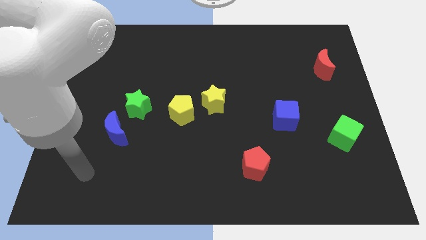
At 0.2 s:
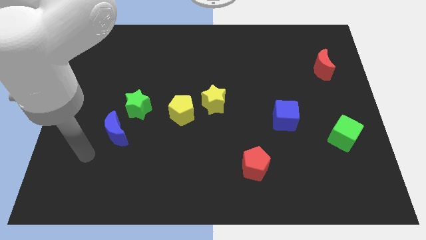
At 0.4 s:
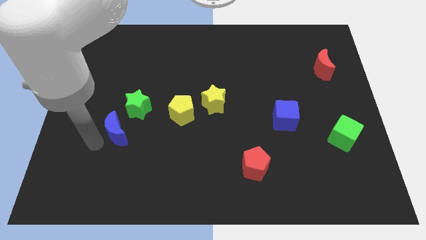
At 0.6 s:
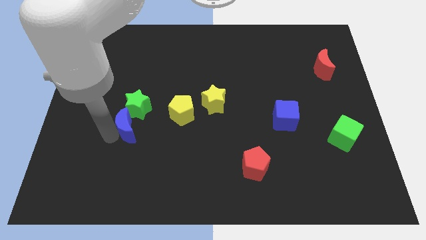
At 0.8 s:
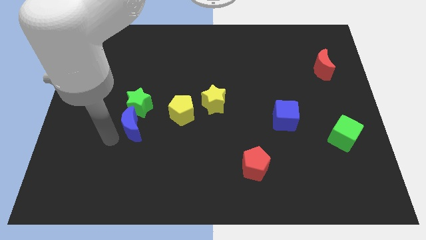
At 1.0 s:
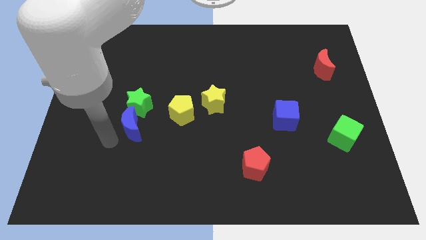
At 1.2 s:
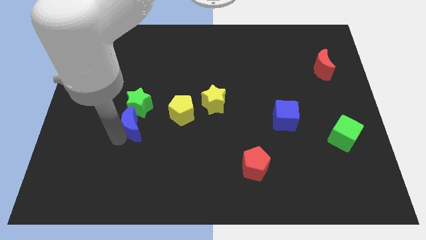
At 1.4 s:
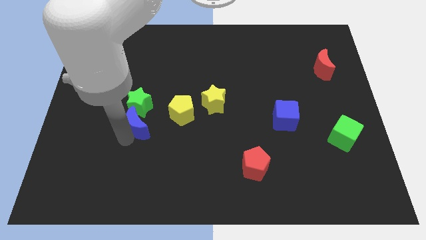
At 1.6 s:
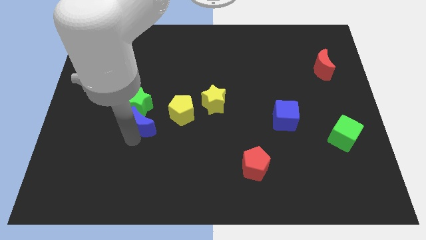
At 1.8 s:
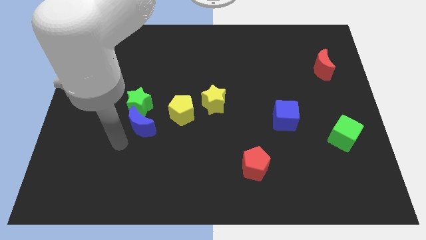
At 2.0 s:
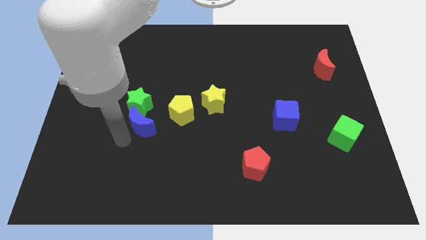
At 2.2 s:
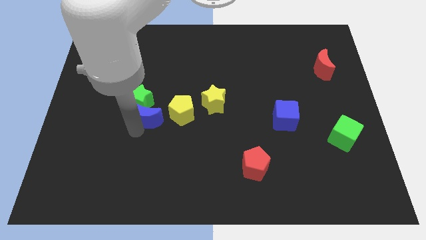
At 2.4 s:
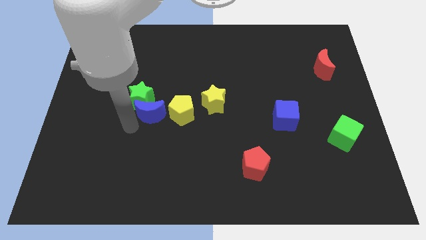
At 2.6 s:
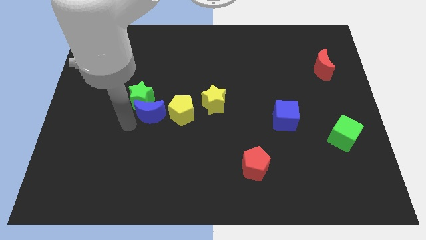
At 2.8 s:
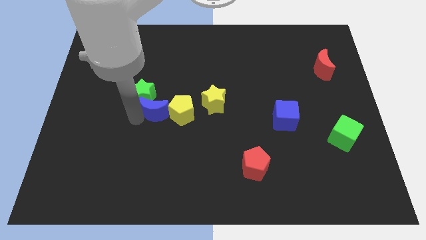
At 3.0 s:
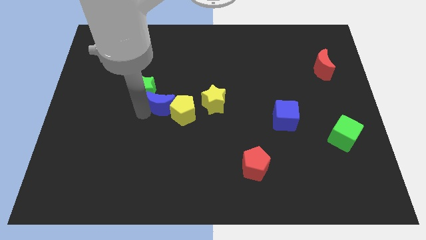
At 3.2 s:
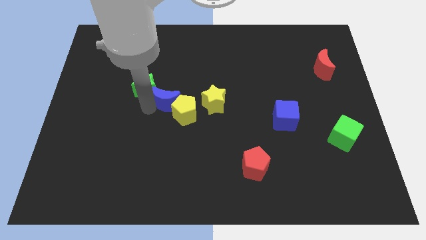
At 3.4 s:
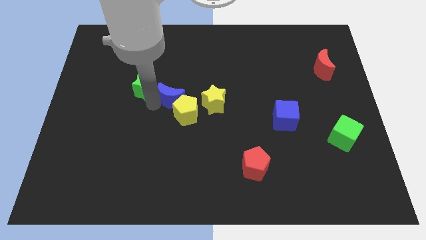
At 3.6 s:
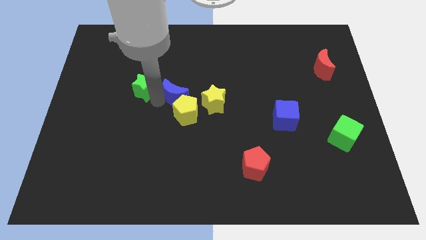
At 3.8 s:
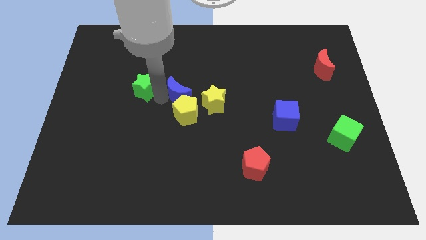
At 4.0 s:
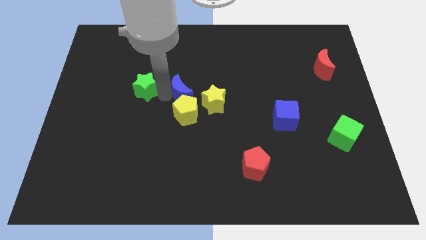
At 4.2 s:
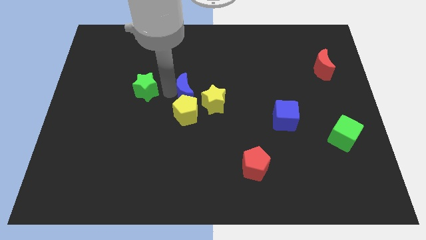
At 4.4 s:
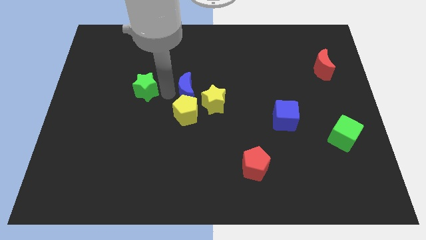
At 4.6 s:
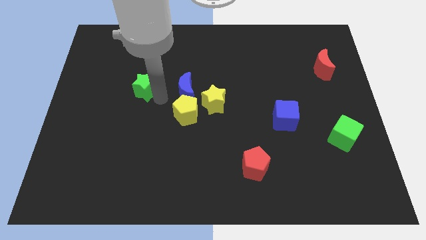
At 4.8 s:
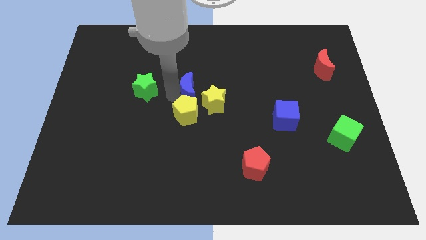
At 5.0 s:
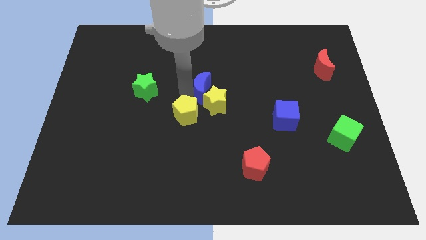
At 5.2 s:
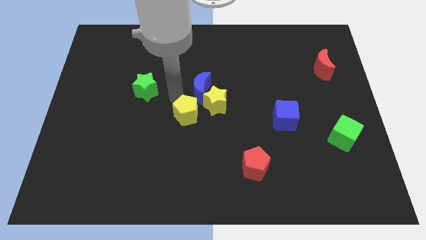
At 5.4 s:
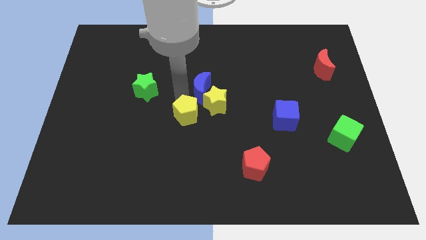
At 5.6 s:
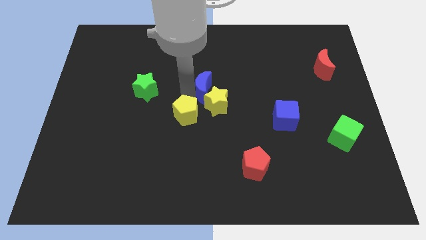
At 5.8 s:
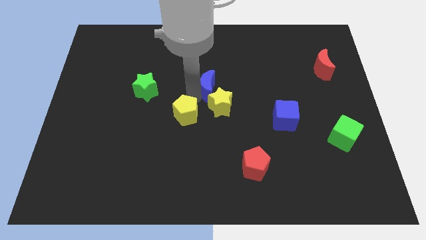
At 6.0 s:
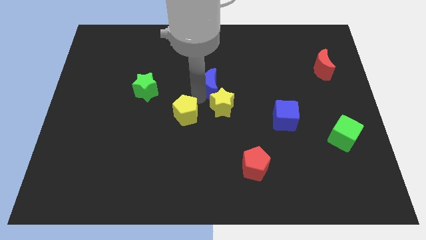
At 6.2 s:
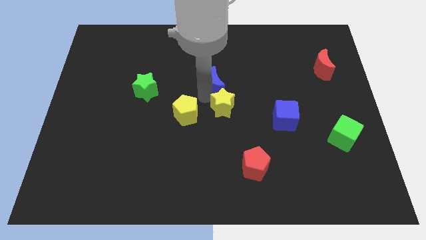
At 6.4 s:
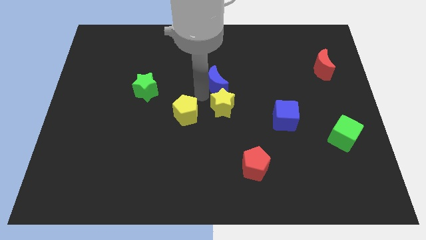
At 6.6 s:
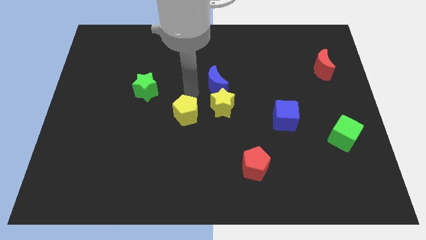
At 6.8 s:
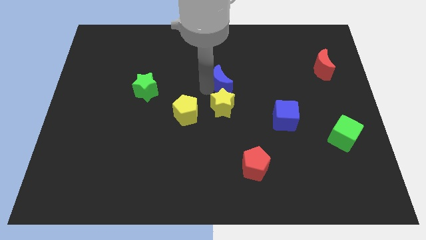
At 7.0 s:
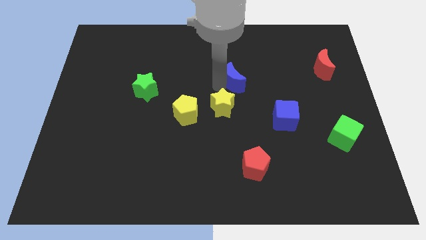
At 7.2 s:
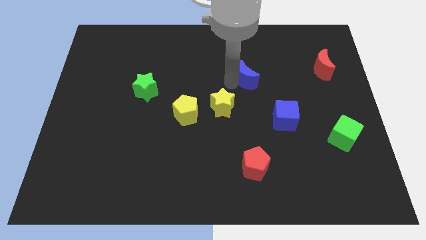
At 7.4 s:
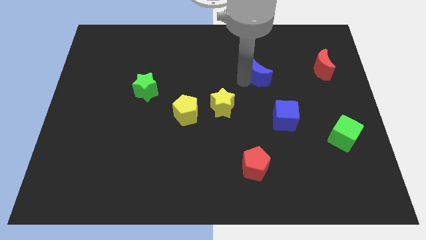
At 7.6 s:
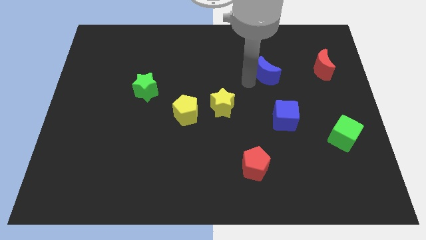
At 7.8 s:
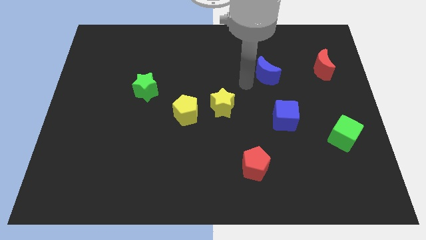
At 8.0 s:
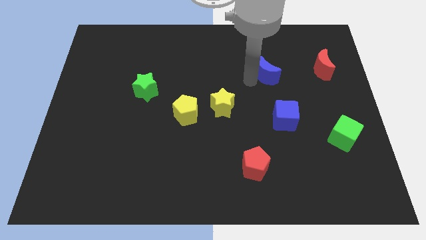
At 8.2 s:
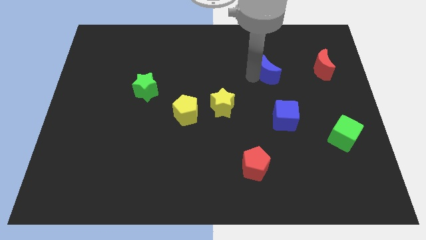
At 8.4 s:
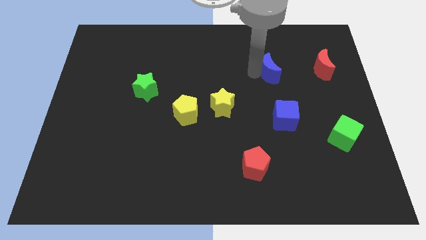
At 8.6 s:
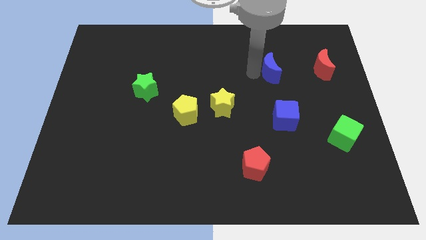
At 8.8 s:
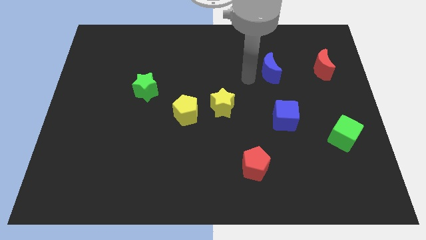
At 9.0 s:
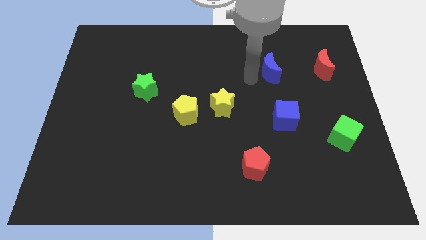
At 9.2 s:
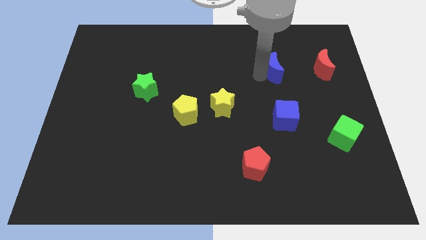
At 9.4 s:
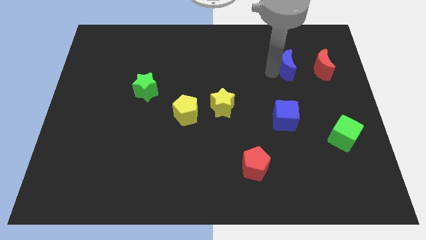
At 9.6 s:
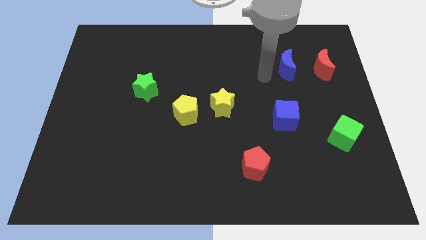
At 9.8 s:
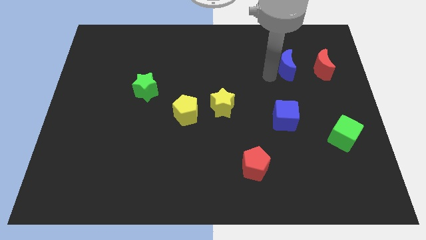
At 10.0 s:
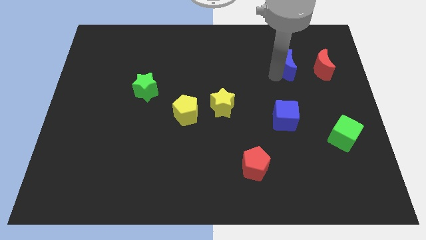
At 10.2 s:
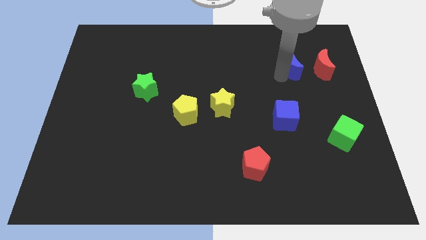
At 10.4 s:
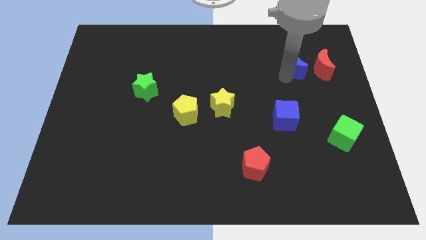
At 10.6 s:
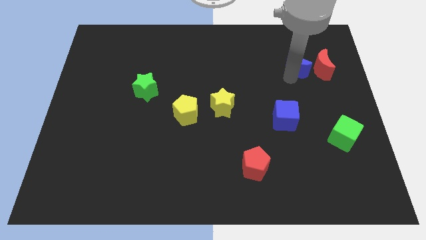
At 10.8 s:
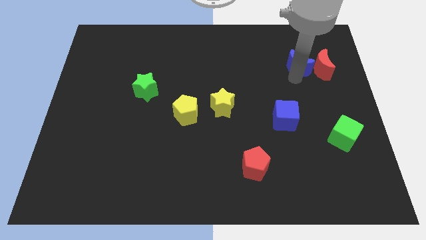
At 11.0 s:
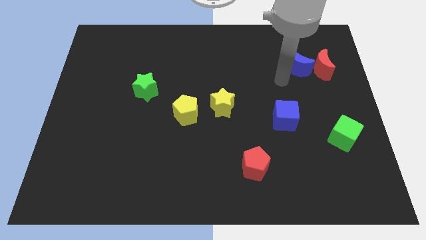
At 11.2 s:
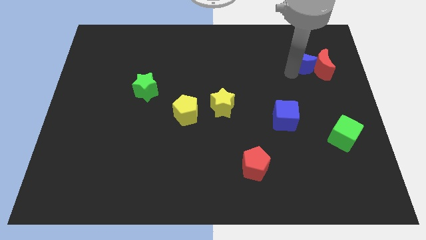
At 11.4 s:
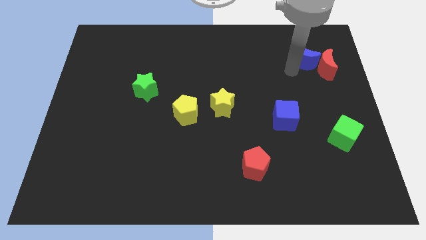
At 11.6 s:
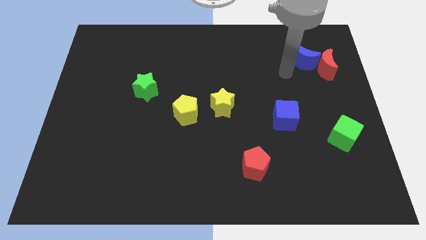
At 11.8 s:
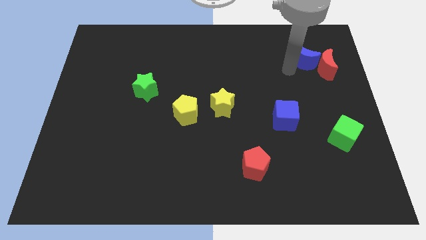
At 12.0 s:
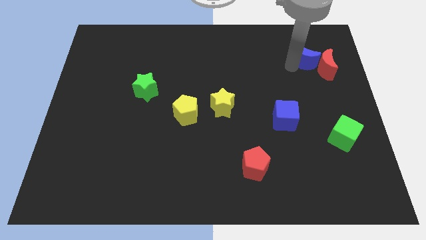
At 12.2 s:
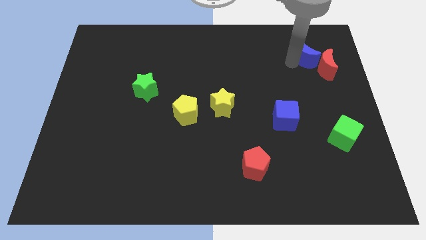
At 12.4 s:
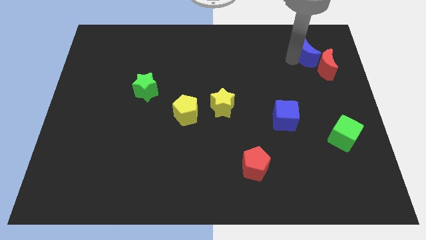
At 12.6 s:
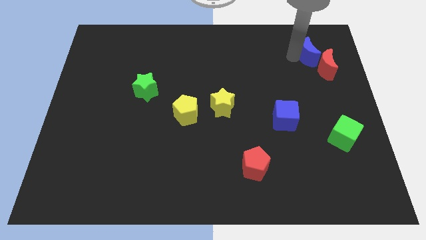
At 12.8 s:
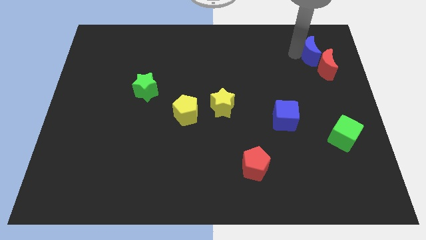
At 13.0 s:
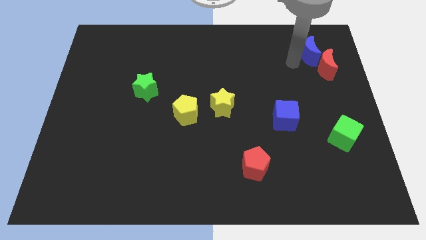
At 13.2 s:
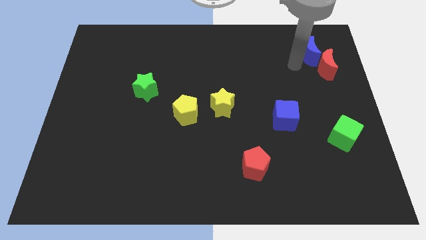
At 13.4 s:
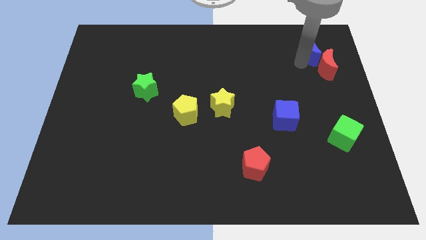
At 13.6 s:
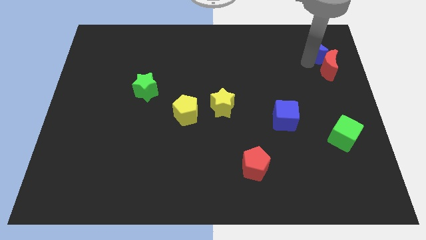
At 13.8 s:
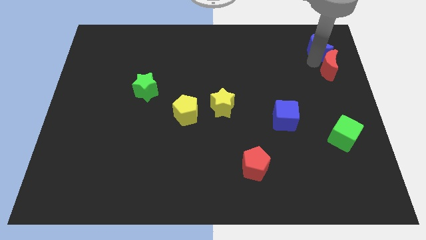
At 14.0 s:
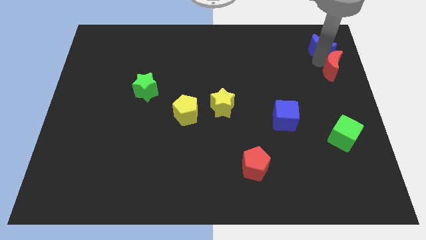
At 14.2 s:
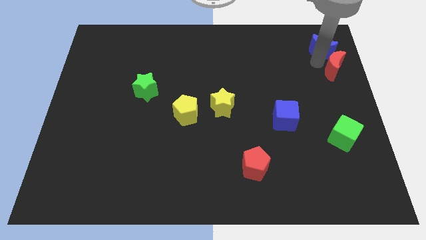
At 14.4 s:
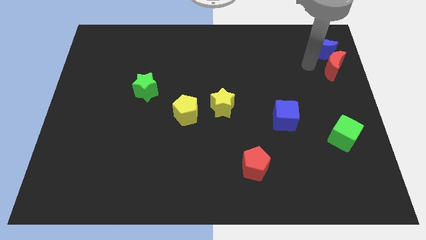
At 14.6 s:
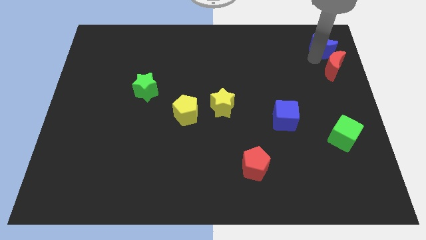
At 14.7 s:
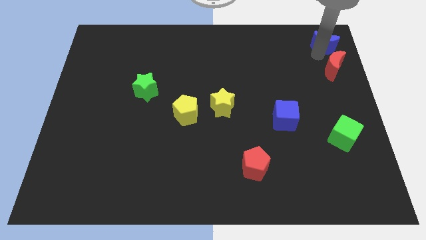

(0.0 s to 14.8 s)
put the blue moon to the top right of the board
